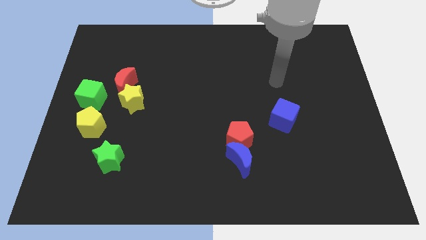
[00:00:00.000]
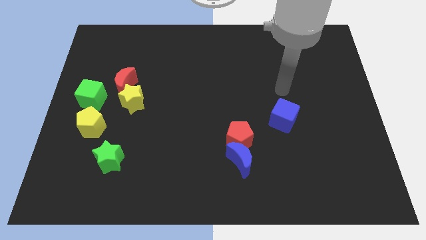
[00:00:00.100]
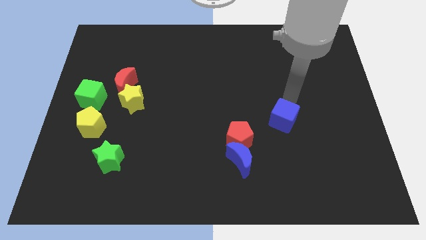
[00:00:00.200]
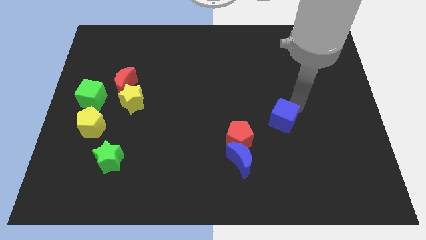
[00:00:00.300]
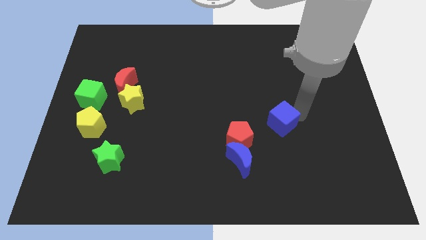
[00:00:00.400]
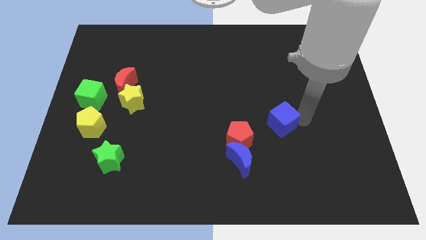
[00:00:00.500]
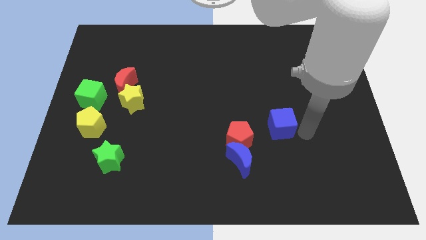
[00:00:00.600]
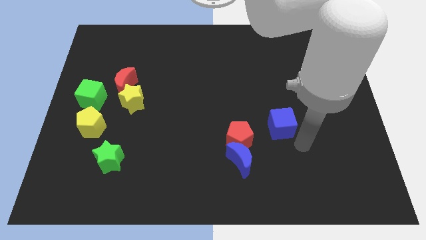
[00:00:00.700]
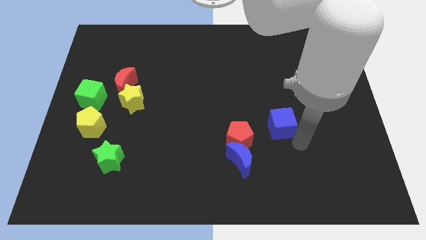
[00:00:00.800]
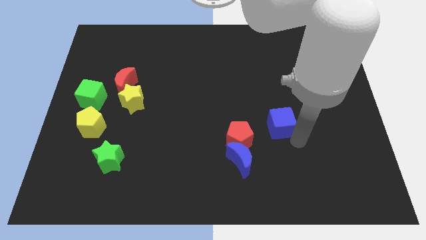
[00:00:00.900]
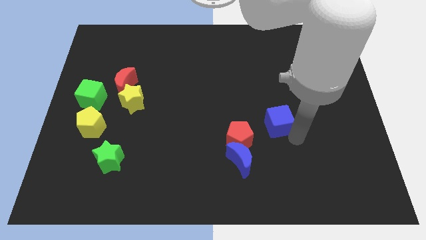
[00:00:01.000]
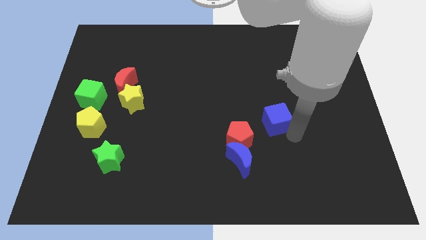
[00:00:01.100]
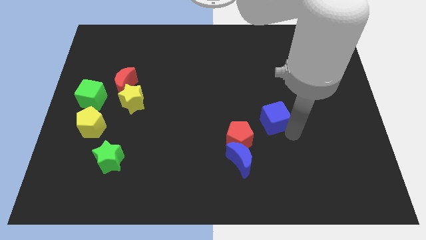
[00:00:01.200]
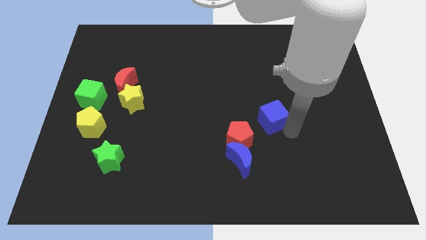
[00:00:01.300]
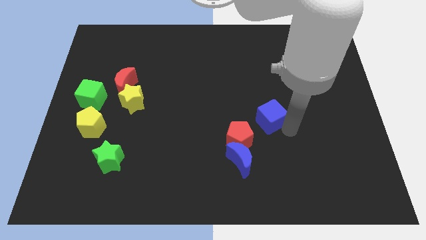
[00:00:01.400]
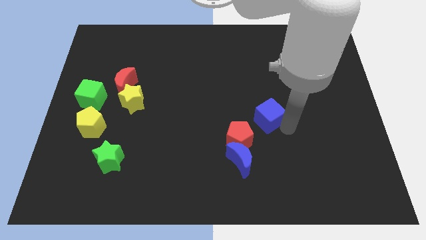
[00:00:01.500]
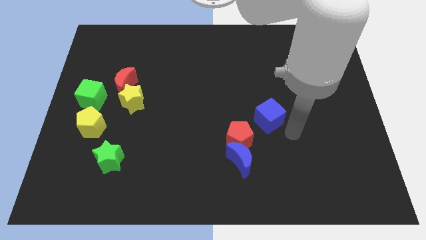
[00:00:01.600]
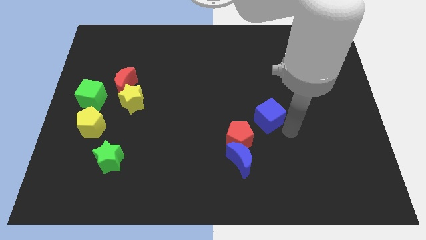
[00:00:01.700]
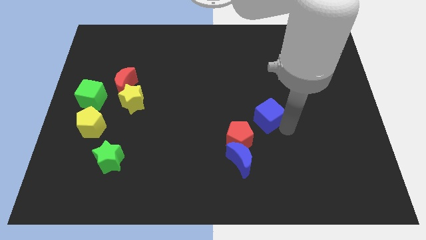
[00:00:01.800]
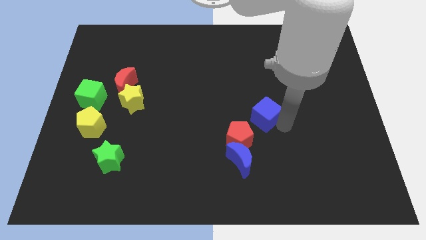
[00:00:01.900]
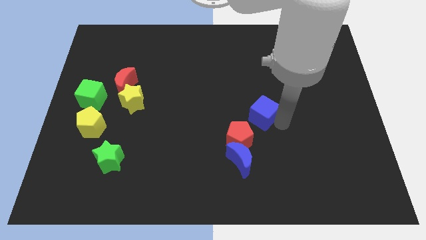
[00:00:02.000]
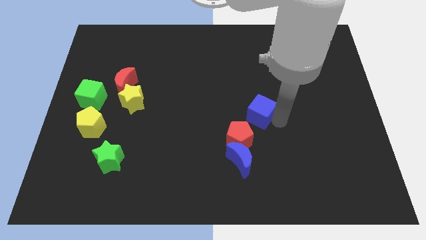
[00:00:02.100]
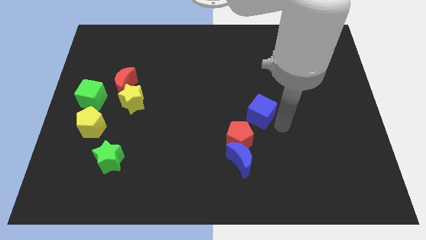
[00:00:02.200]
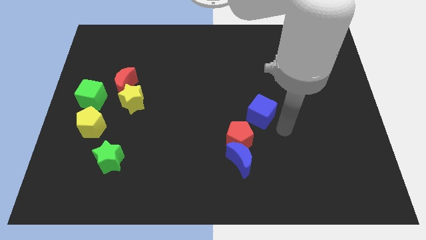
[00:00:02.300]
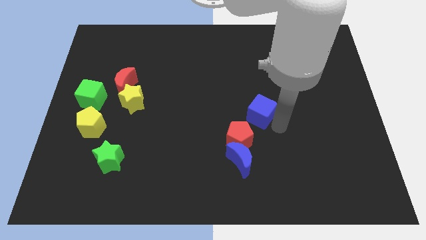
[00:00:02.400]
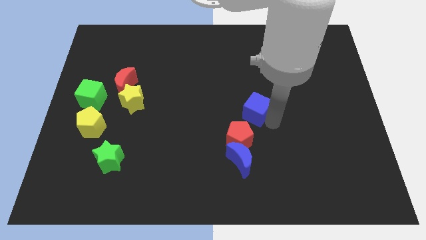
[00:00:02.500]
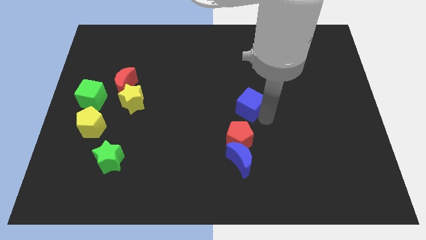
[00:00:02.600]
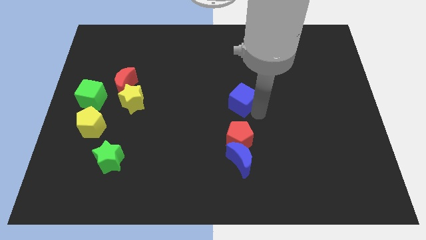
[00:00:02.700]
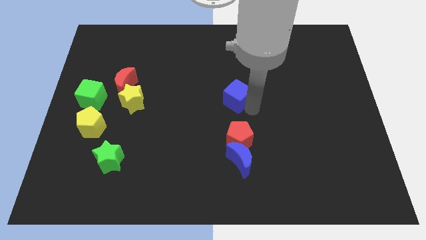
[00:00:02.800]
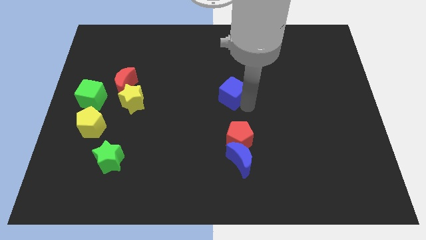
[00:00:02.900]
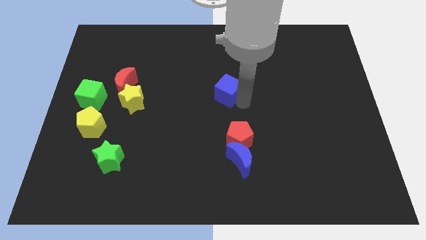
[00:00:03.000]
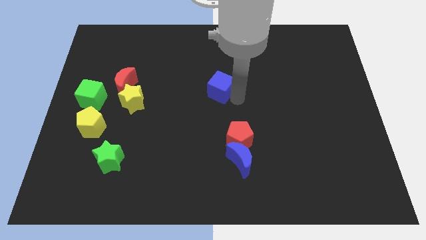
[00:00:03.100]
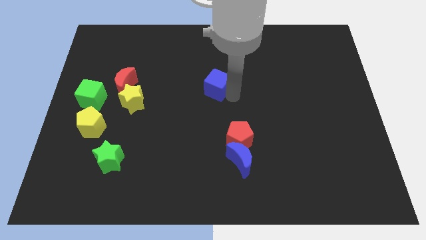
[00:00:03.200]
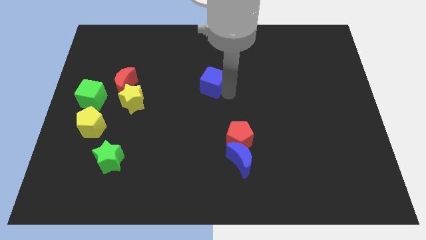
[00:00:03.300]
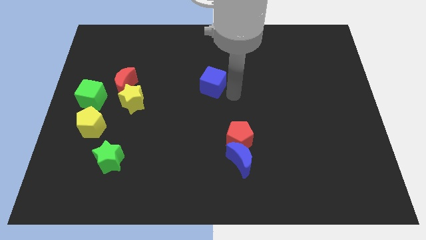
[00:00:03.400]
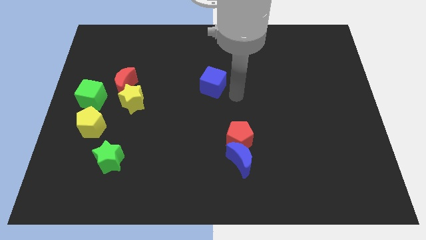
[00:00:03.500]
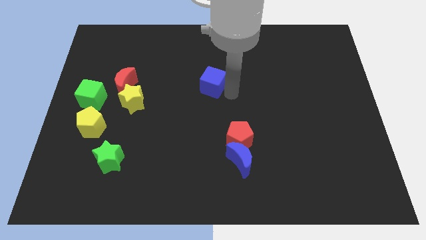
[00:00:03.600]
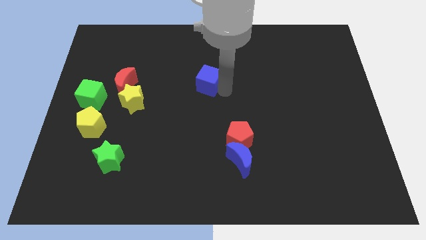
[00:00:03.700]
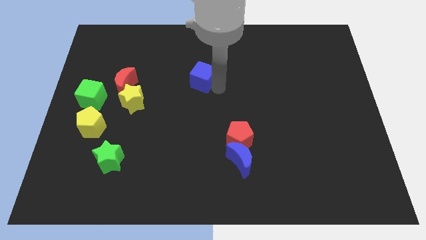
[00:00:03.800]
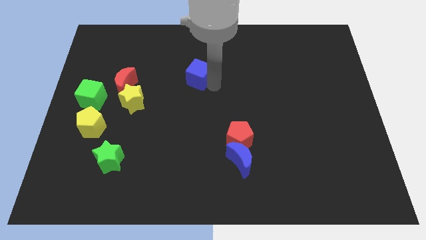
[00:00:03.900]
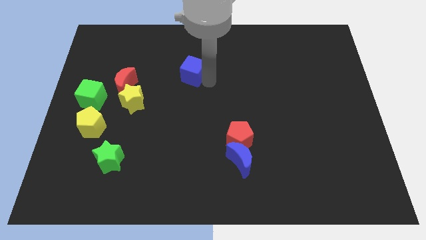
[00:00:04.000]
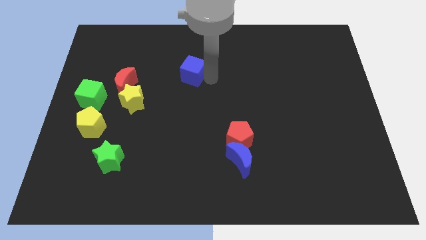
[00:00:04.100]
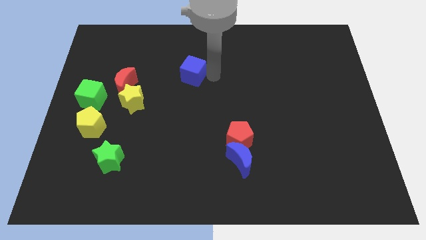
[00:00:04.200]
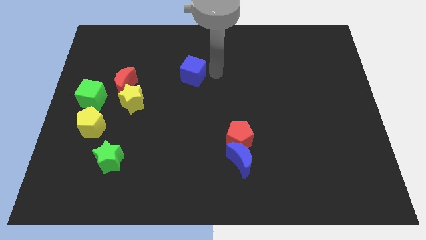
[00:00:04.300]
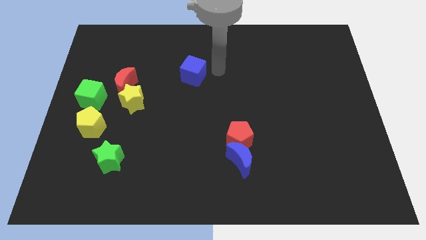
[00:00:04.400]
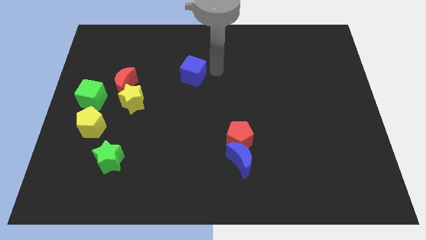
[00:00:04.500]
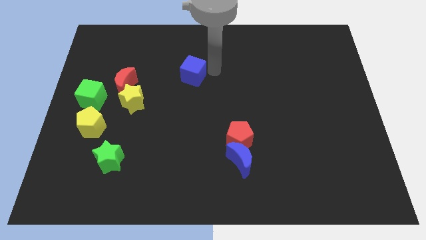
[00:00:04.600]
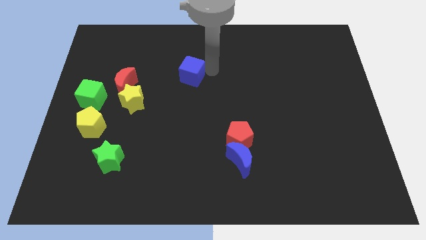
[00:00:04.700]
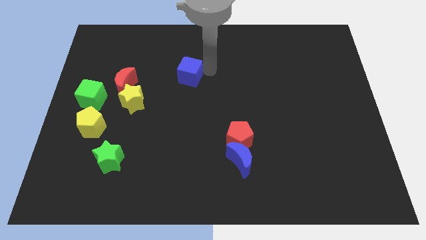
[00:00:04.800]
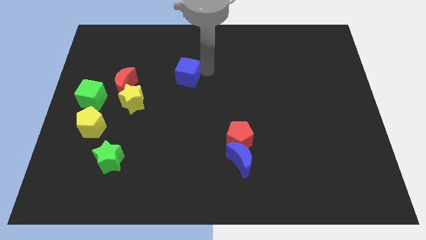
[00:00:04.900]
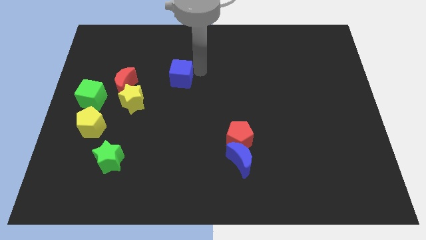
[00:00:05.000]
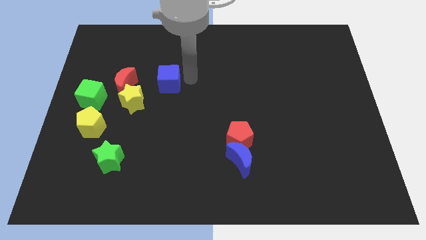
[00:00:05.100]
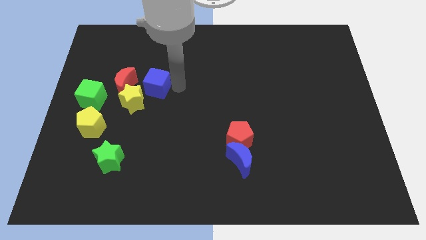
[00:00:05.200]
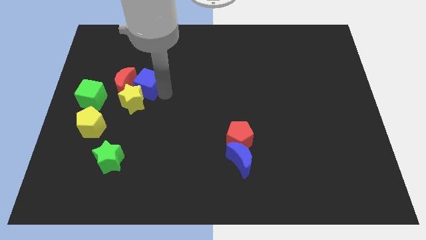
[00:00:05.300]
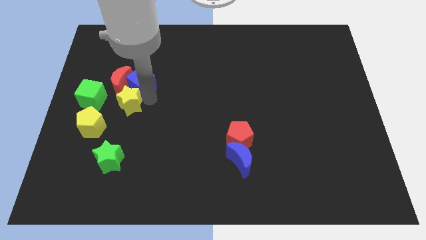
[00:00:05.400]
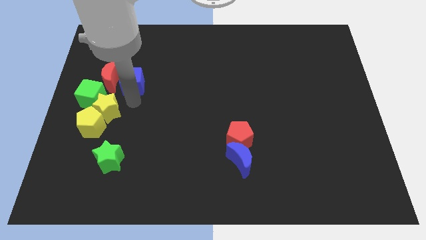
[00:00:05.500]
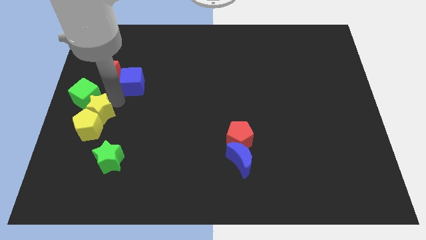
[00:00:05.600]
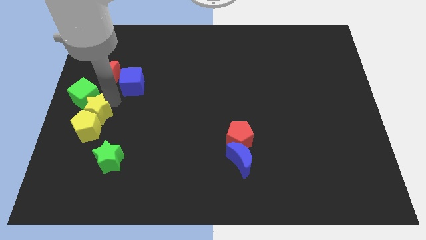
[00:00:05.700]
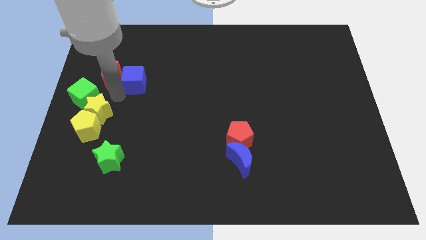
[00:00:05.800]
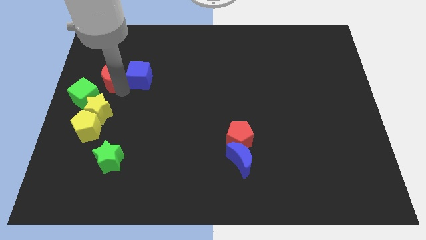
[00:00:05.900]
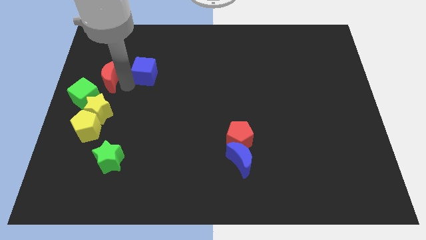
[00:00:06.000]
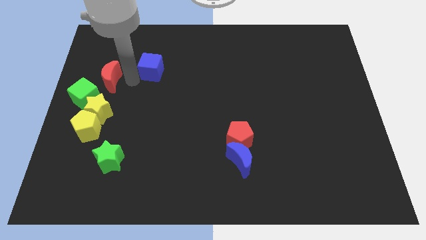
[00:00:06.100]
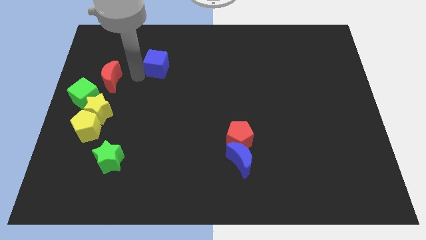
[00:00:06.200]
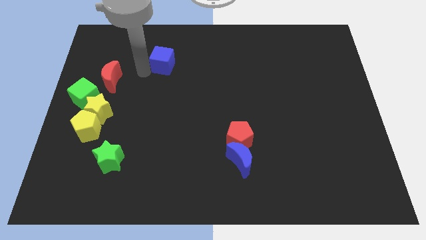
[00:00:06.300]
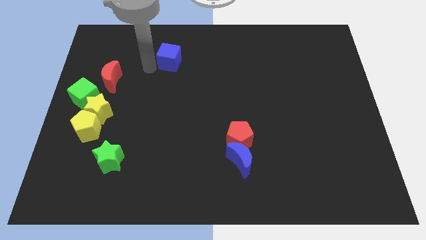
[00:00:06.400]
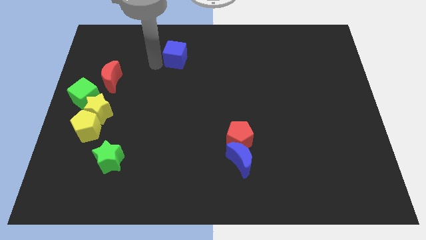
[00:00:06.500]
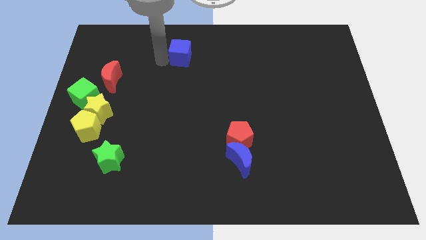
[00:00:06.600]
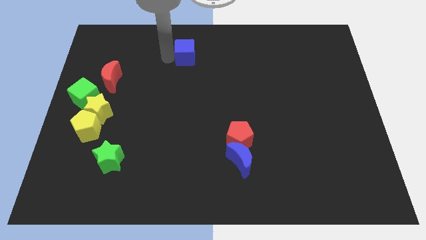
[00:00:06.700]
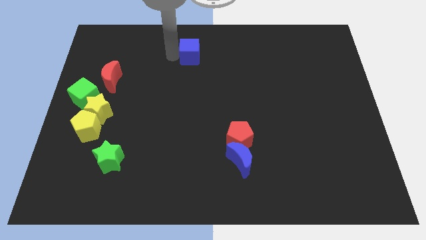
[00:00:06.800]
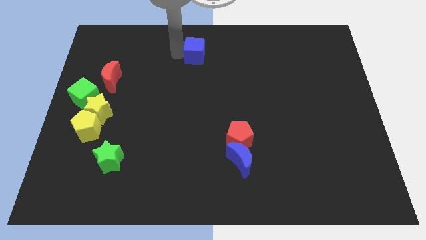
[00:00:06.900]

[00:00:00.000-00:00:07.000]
slide the blue cube to the top side

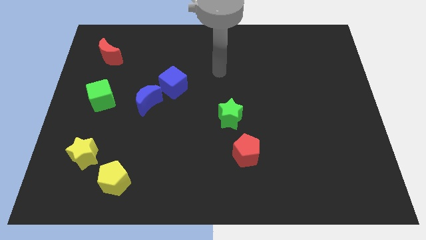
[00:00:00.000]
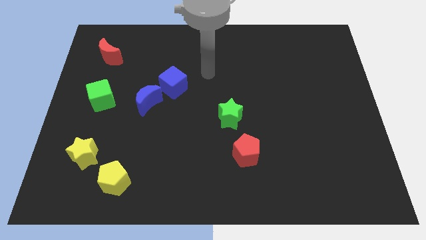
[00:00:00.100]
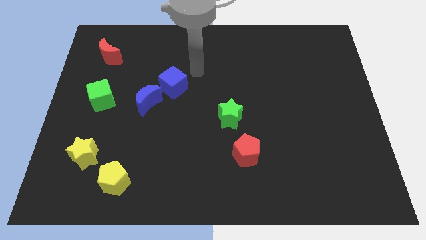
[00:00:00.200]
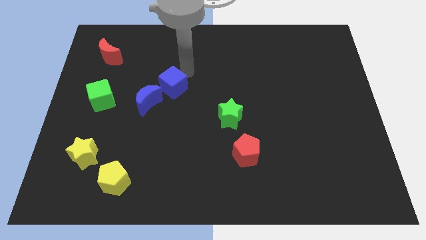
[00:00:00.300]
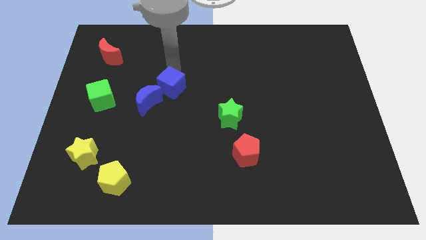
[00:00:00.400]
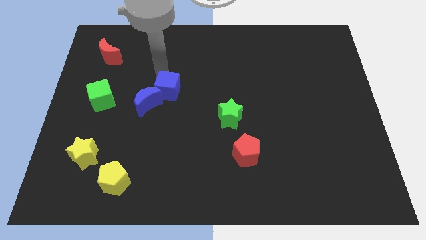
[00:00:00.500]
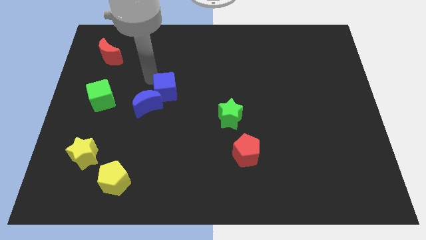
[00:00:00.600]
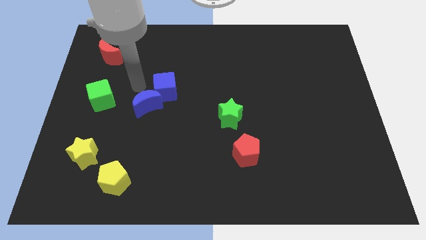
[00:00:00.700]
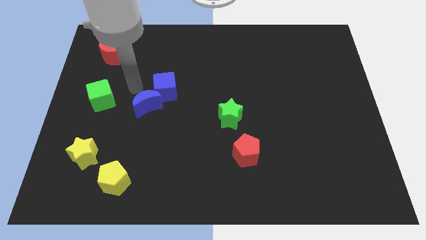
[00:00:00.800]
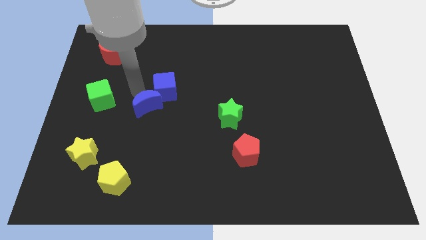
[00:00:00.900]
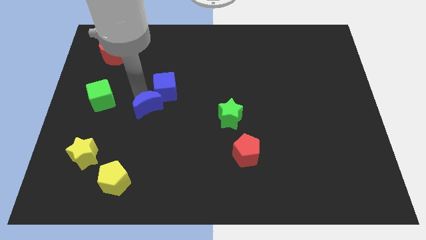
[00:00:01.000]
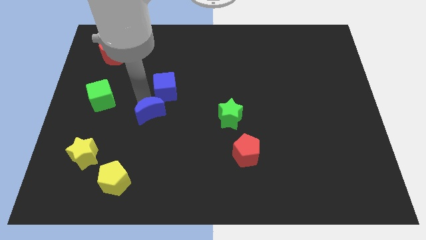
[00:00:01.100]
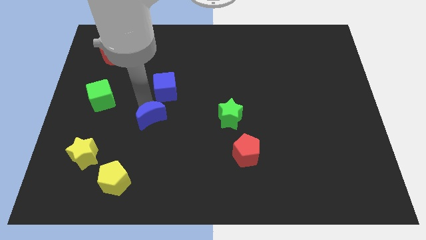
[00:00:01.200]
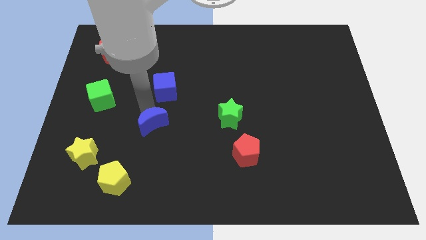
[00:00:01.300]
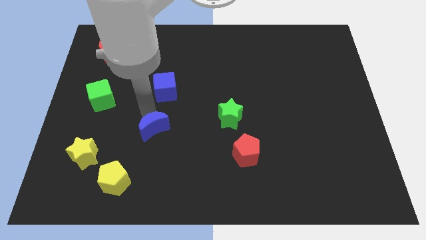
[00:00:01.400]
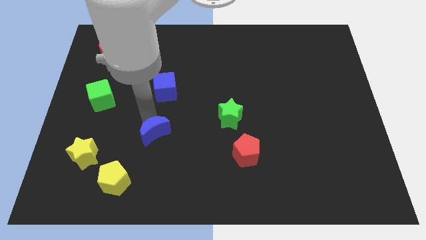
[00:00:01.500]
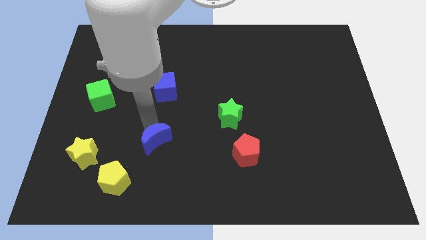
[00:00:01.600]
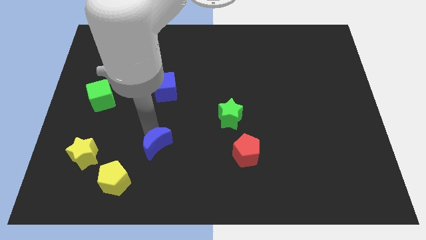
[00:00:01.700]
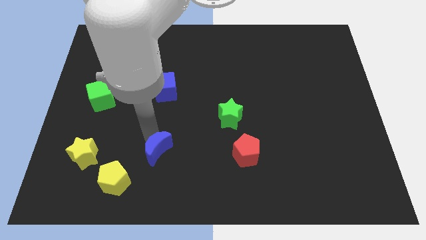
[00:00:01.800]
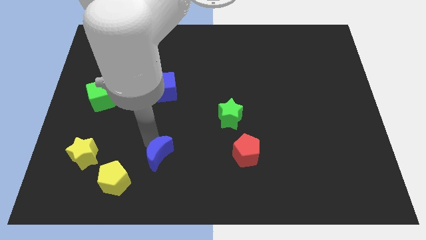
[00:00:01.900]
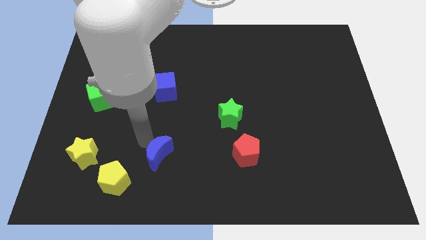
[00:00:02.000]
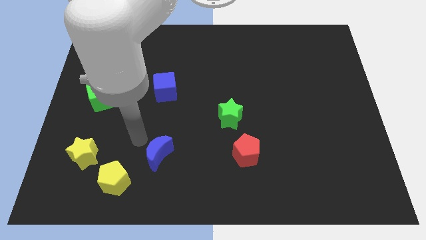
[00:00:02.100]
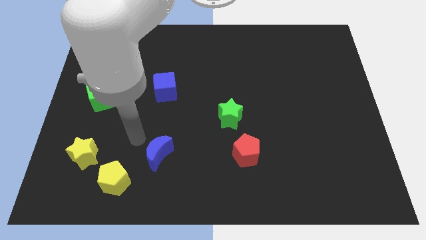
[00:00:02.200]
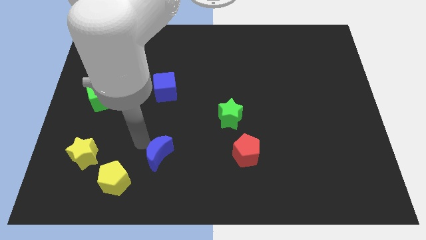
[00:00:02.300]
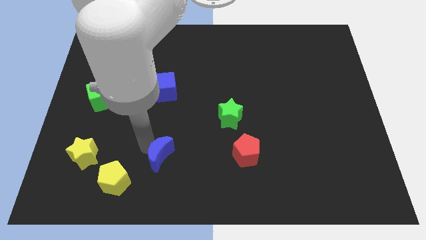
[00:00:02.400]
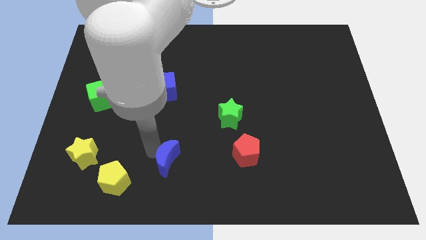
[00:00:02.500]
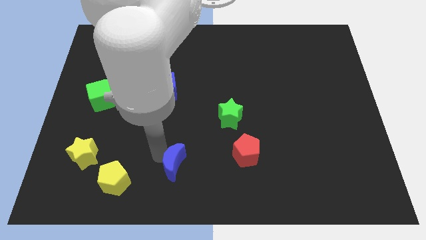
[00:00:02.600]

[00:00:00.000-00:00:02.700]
put the blue moon to the bottom
